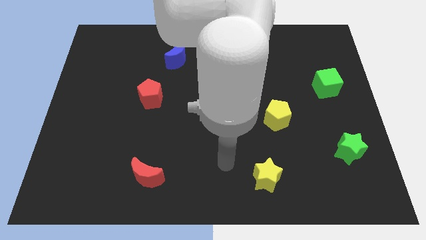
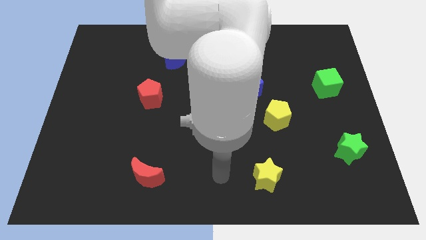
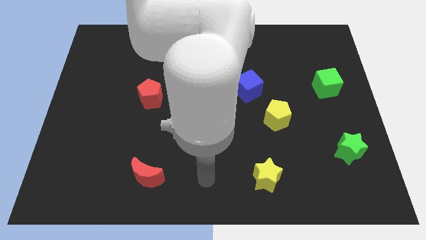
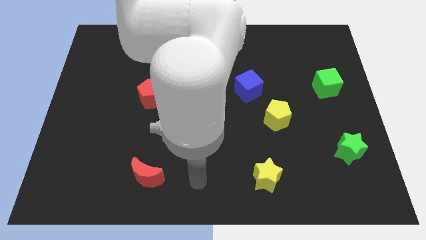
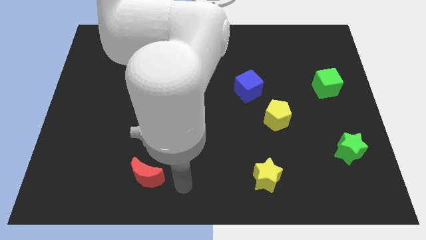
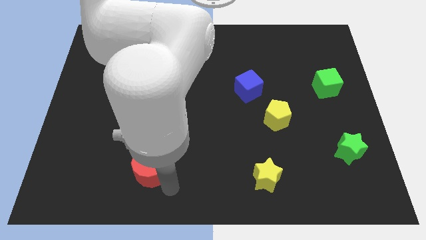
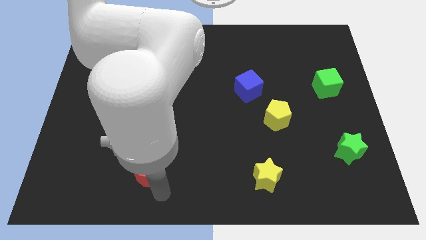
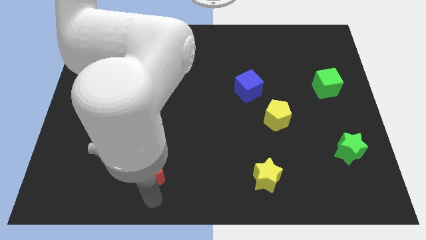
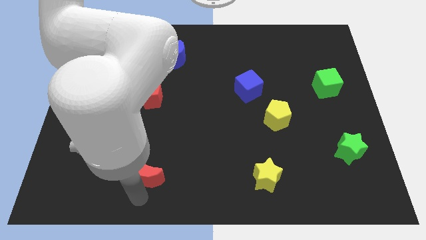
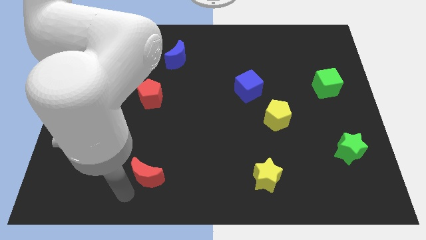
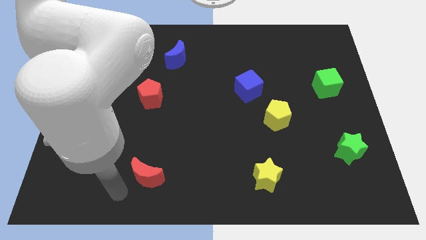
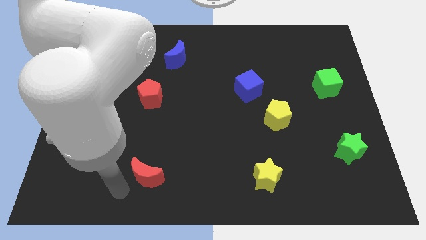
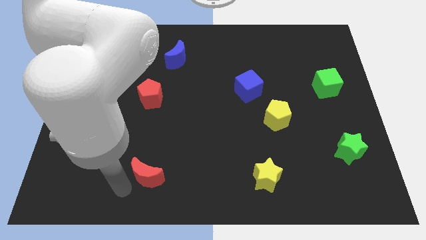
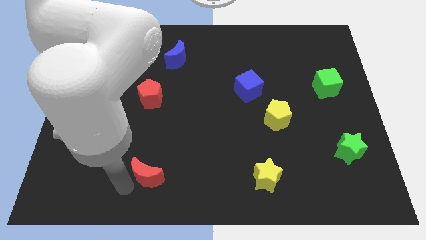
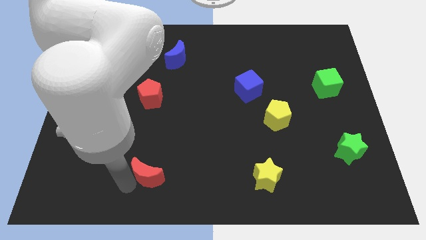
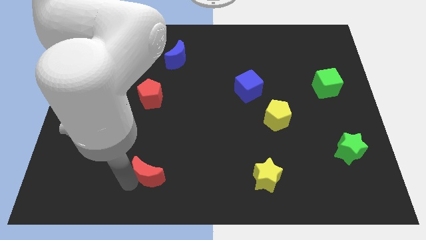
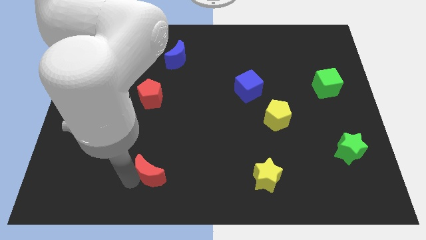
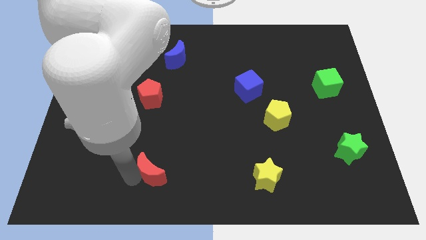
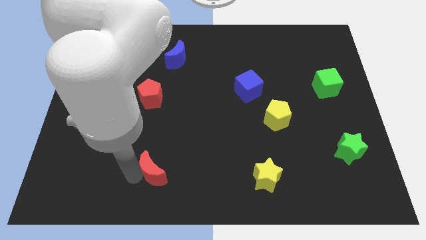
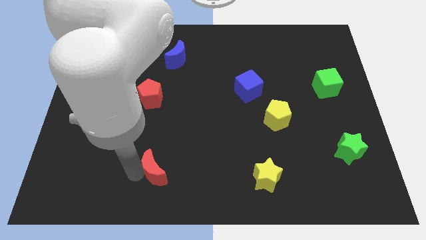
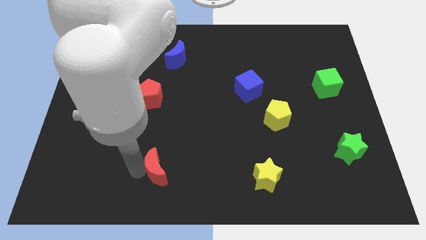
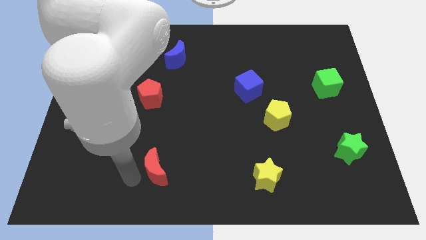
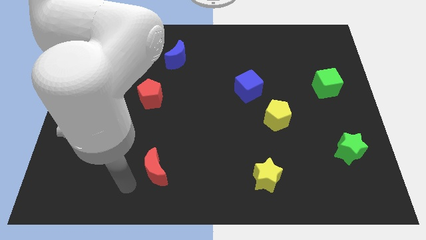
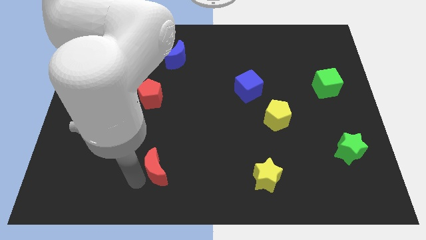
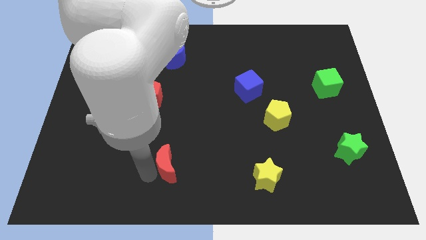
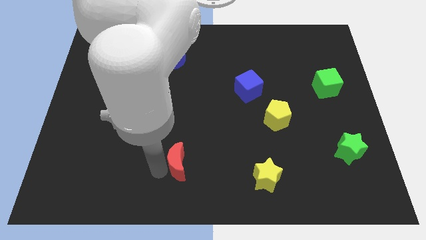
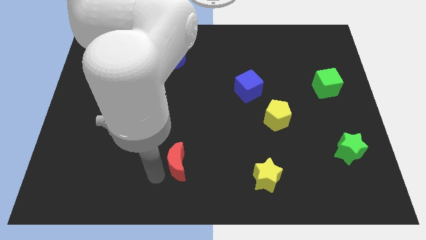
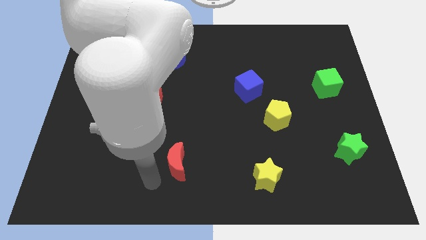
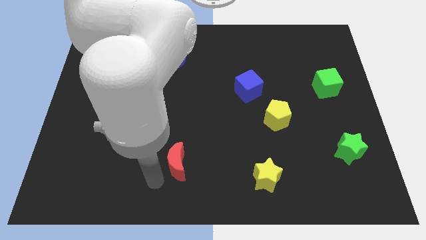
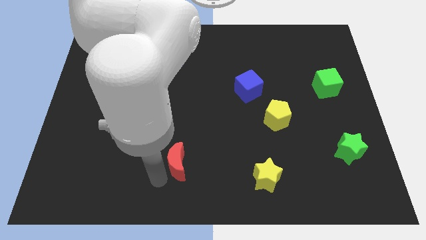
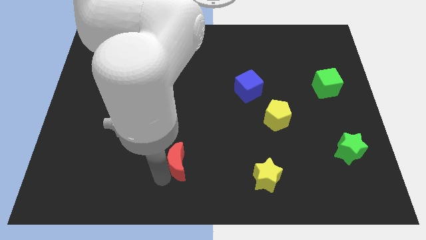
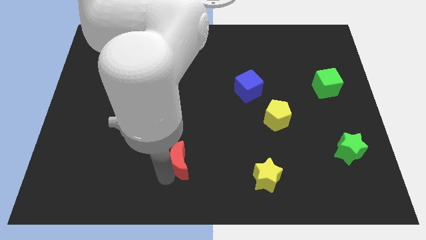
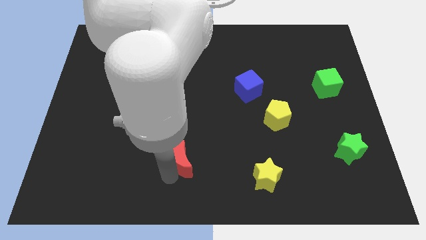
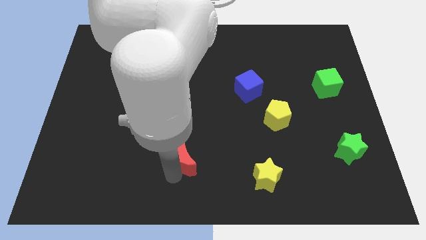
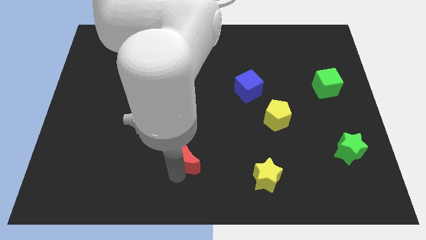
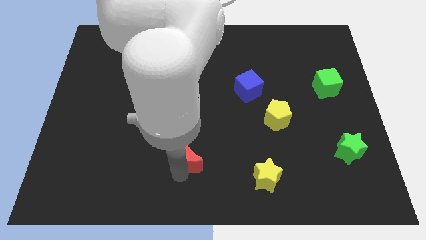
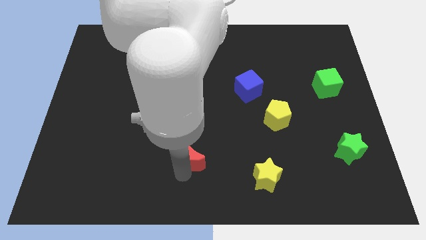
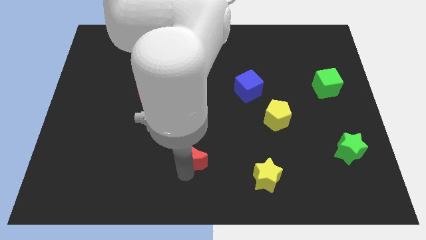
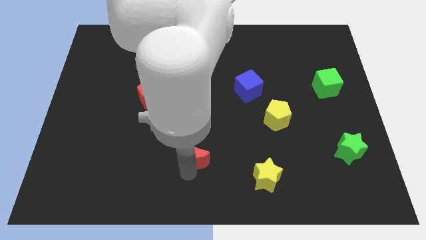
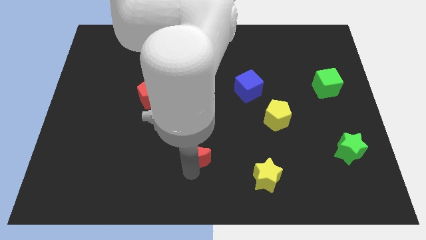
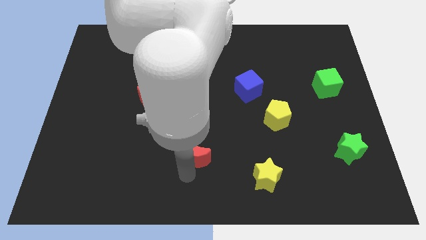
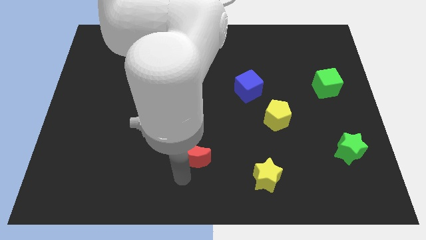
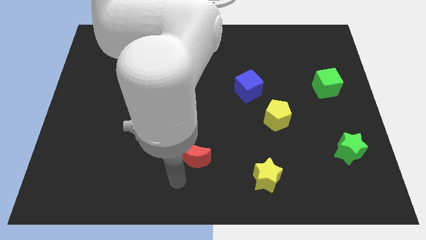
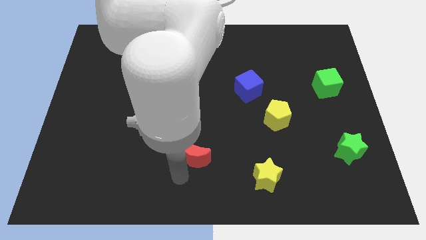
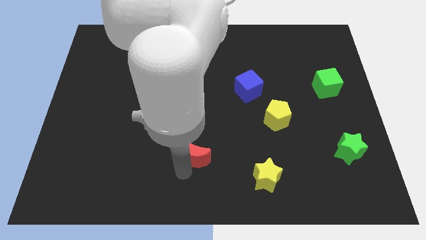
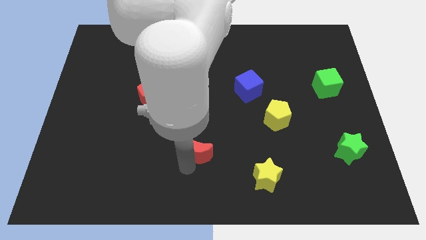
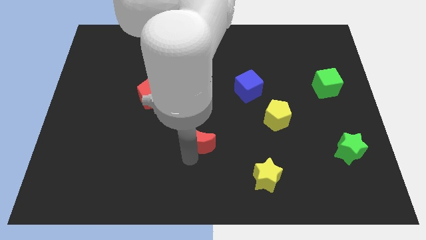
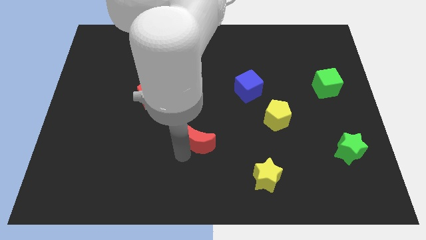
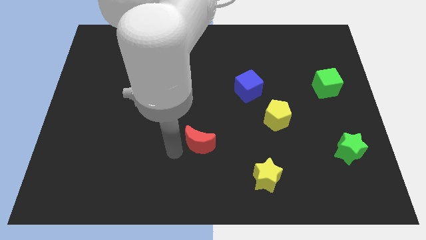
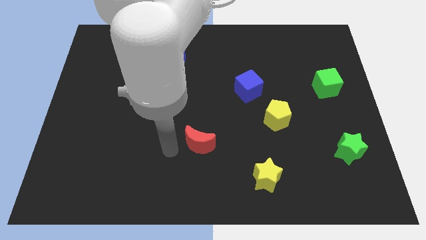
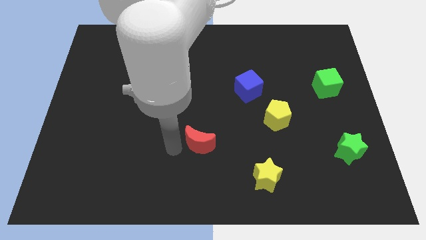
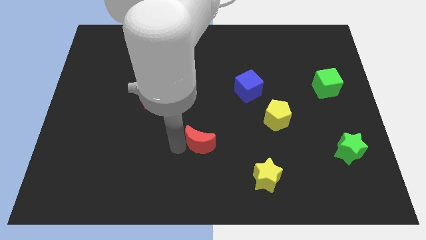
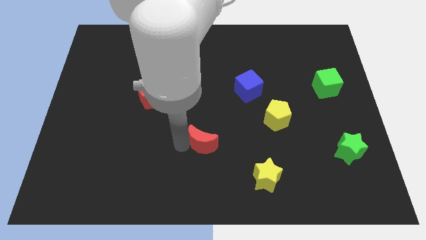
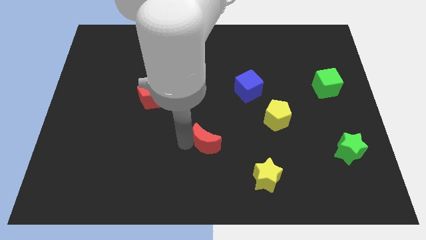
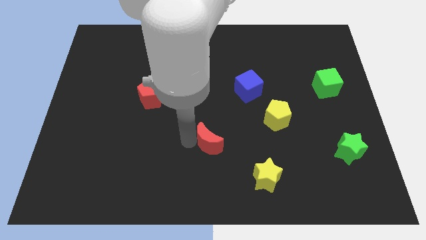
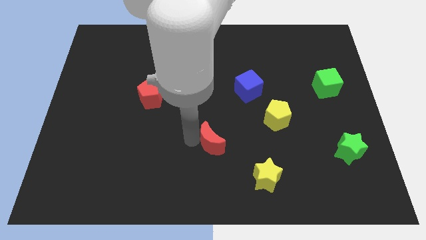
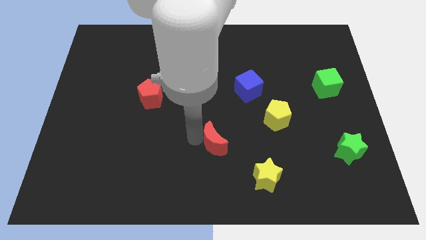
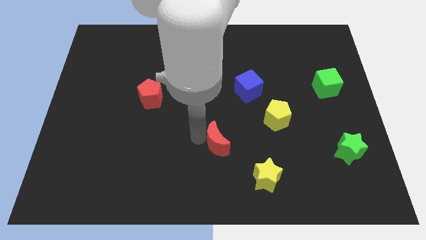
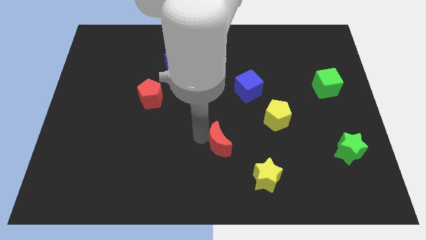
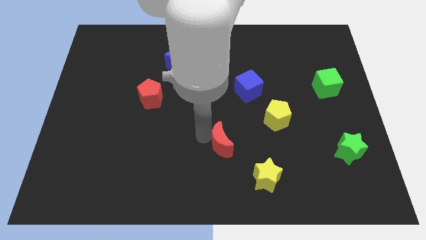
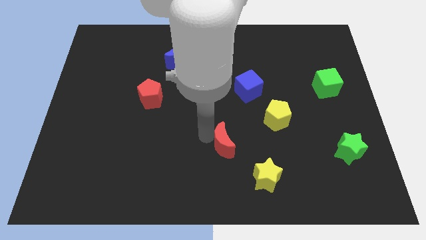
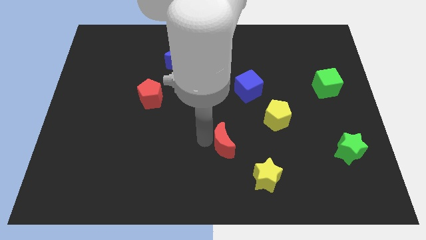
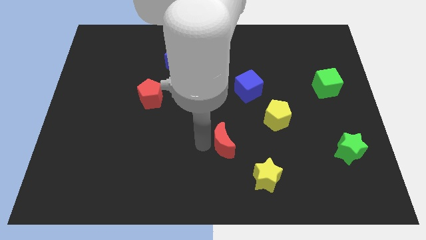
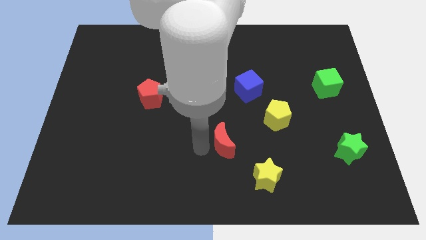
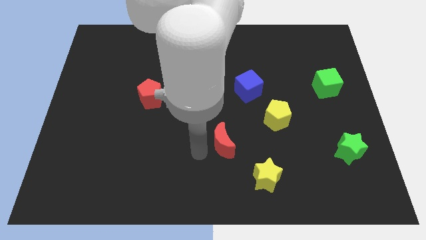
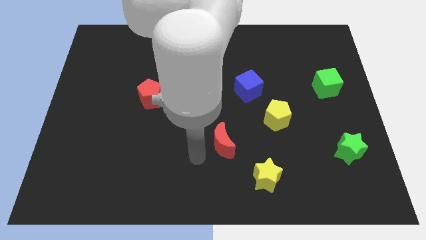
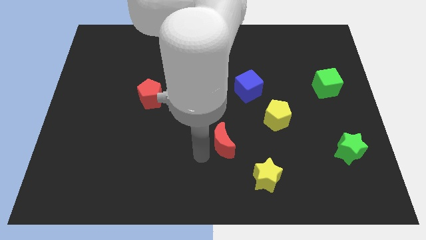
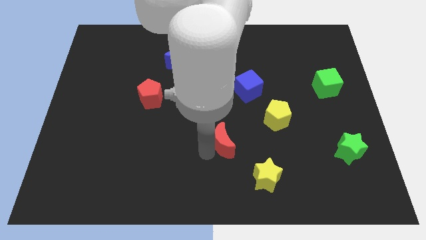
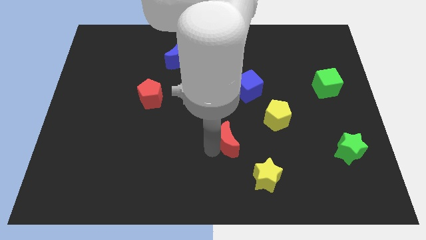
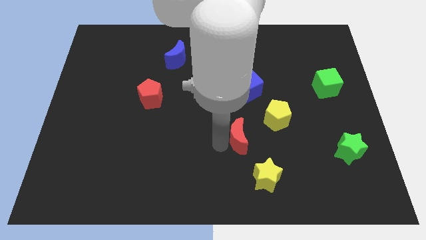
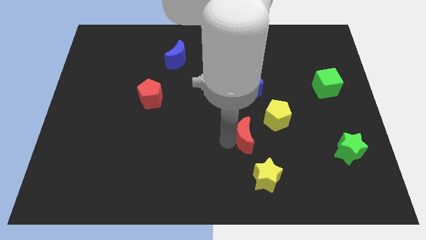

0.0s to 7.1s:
put the red moon to the top side of the yellow star
